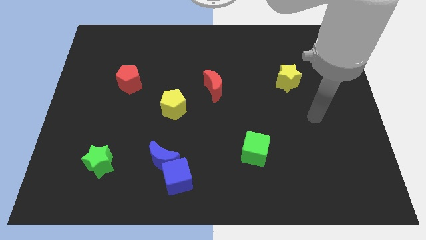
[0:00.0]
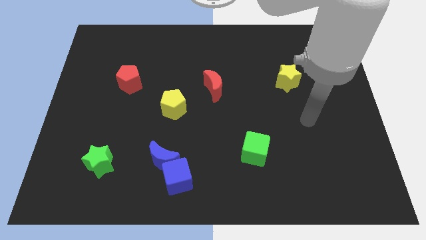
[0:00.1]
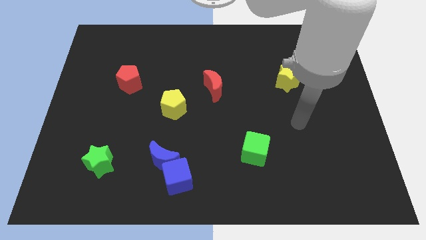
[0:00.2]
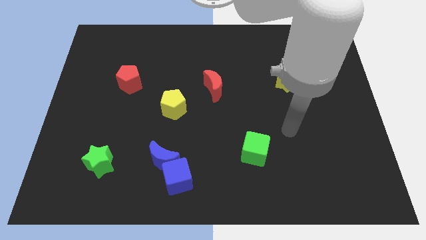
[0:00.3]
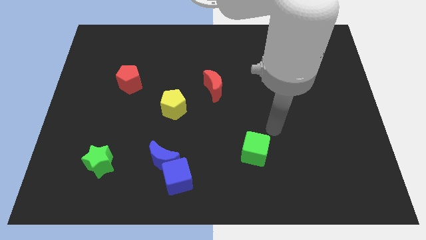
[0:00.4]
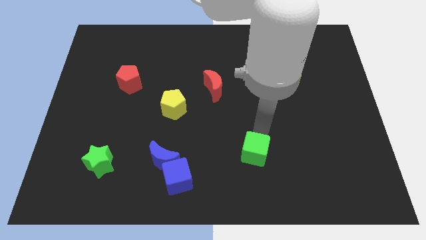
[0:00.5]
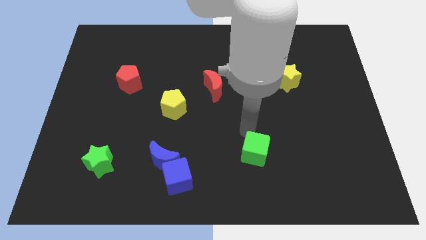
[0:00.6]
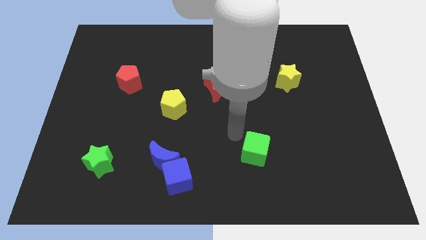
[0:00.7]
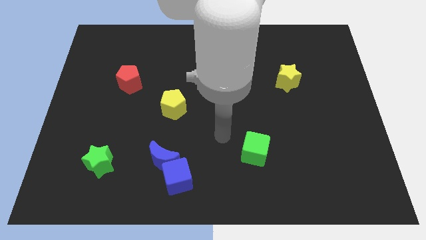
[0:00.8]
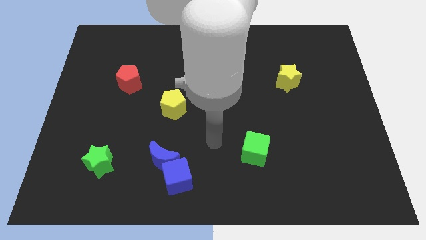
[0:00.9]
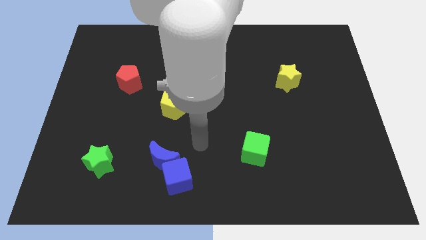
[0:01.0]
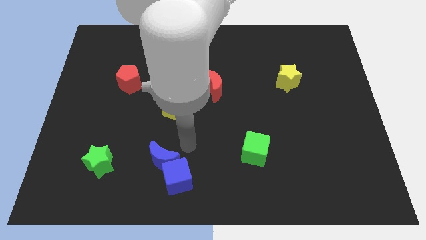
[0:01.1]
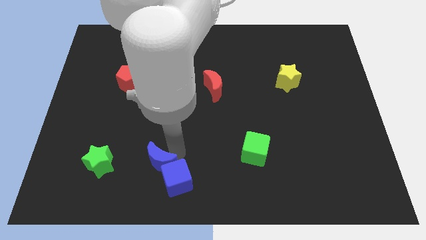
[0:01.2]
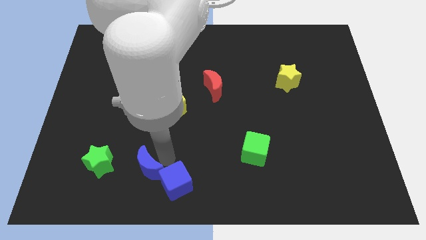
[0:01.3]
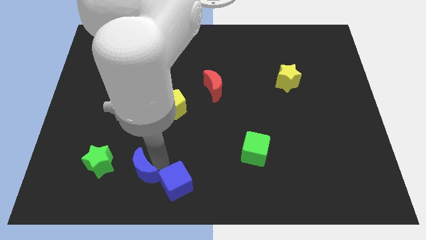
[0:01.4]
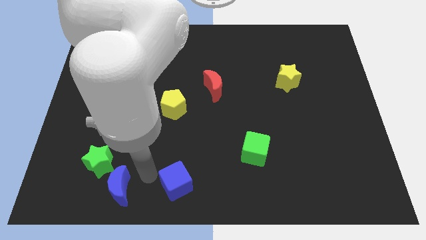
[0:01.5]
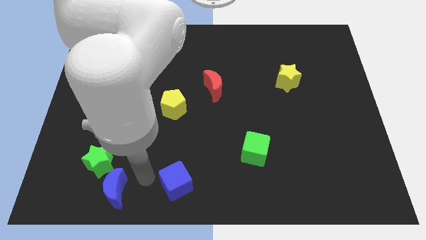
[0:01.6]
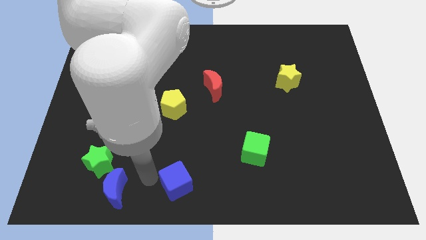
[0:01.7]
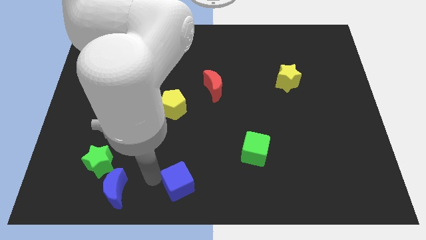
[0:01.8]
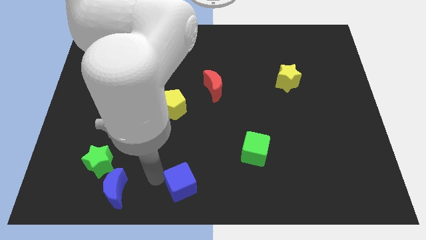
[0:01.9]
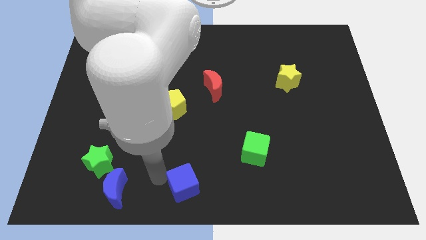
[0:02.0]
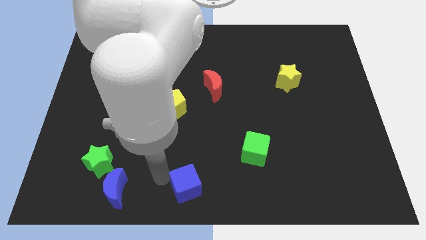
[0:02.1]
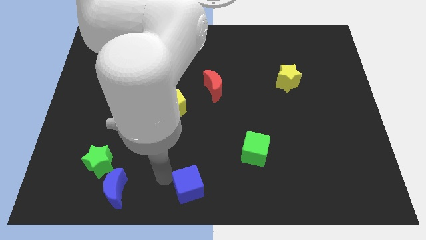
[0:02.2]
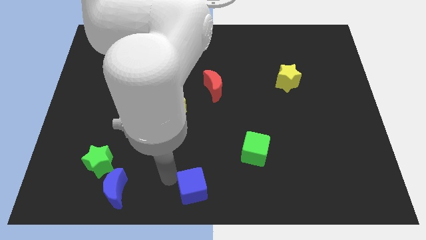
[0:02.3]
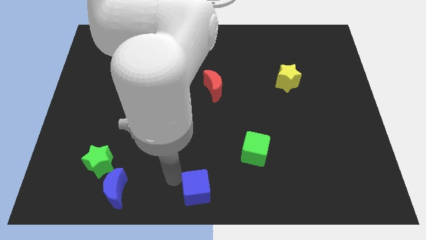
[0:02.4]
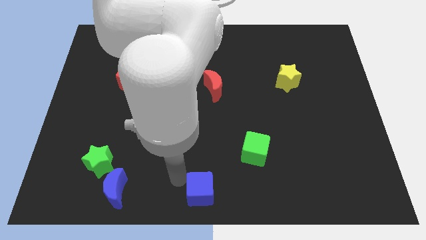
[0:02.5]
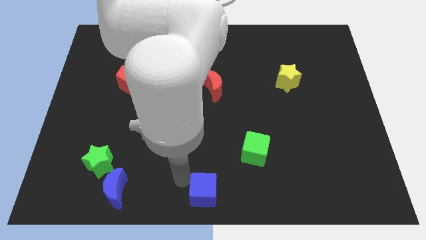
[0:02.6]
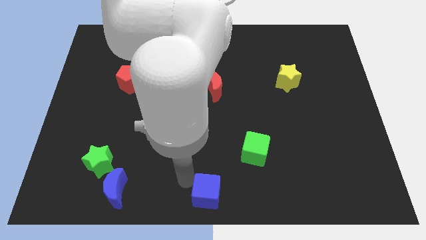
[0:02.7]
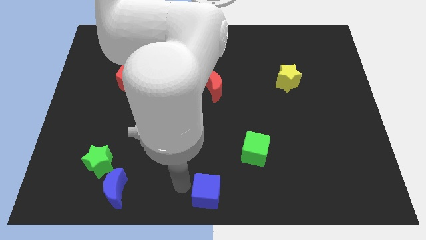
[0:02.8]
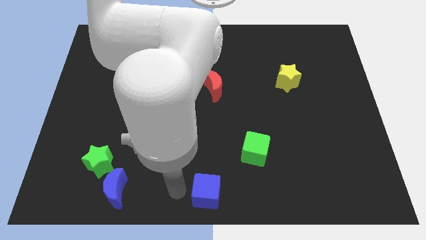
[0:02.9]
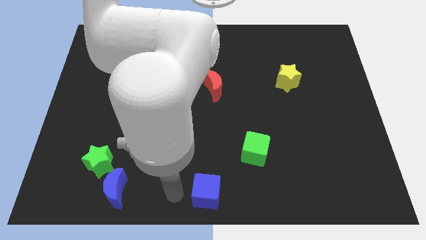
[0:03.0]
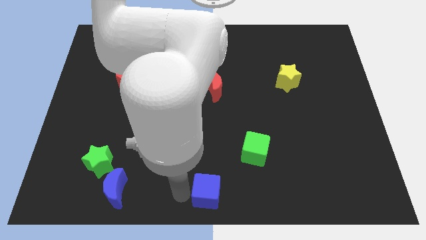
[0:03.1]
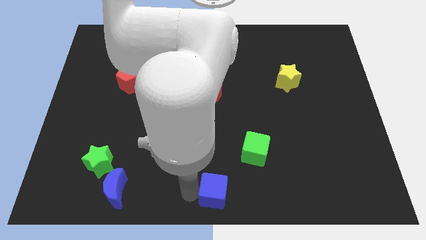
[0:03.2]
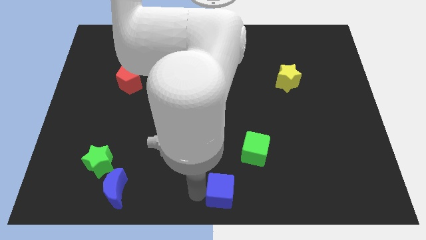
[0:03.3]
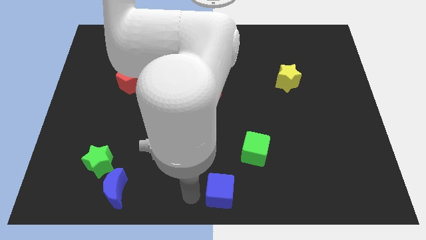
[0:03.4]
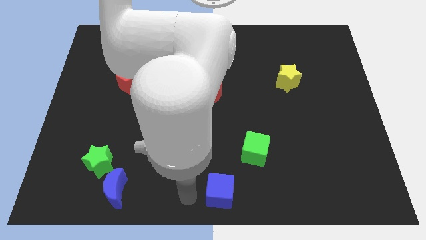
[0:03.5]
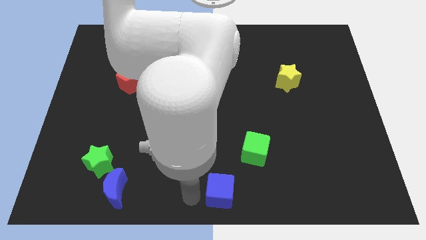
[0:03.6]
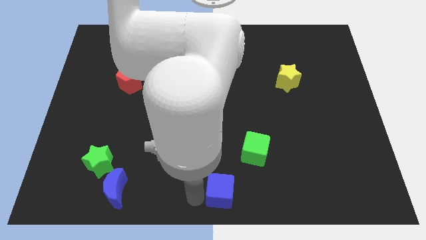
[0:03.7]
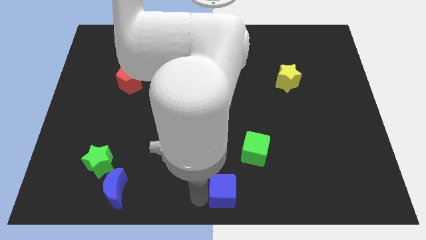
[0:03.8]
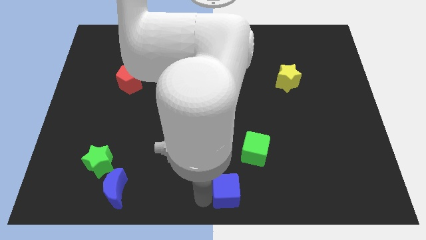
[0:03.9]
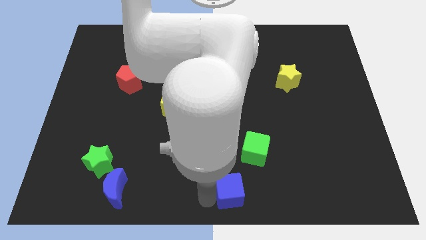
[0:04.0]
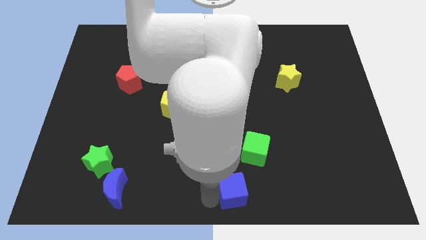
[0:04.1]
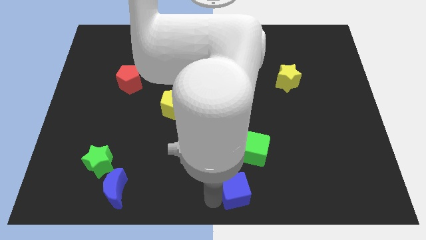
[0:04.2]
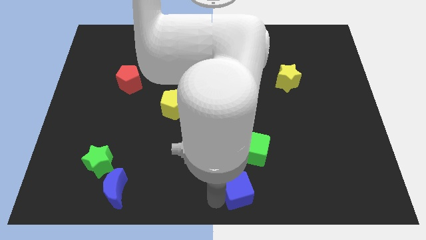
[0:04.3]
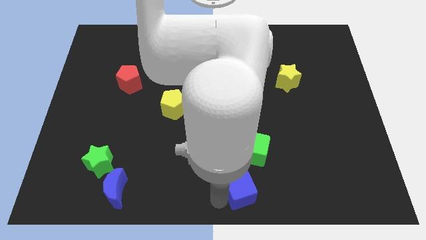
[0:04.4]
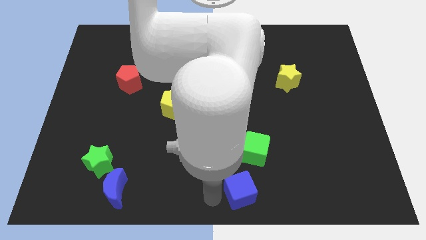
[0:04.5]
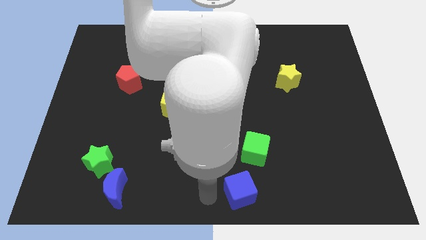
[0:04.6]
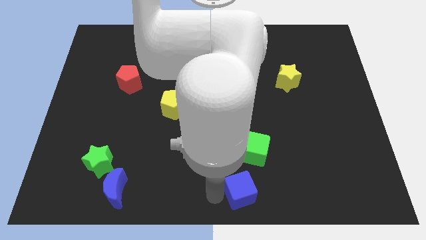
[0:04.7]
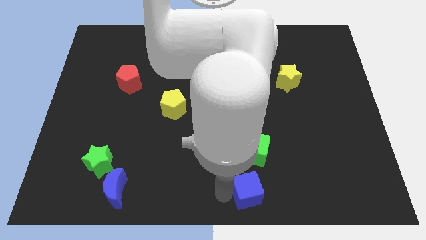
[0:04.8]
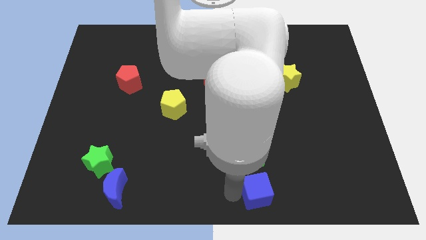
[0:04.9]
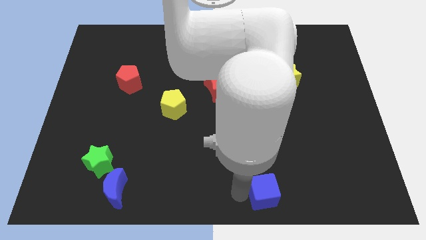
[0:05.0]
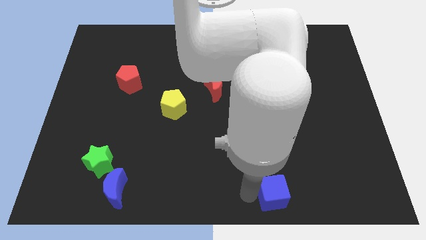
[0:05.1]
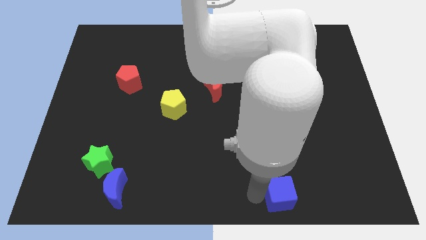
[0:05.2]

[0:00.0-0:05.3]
push the blue cube right

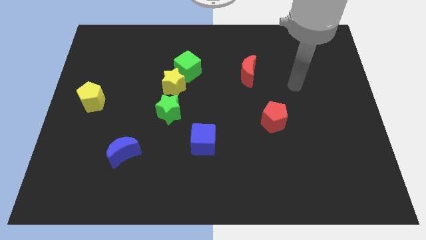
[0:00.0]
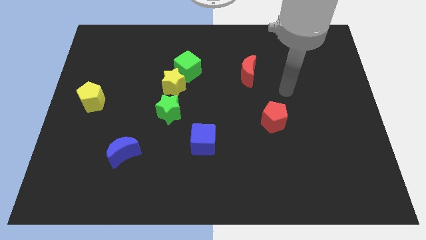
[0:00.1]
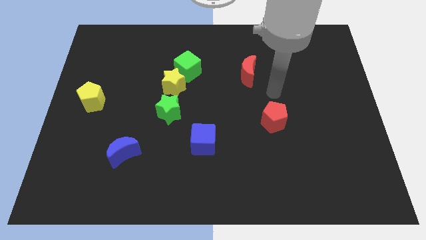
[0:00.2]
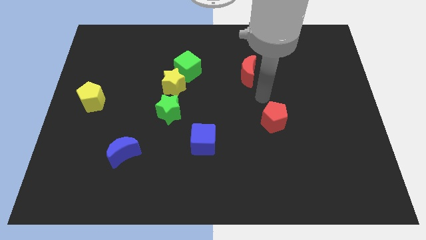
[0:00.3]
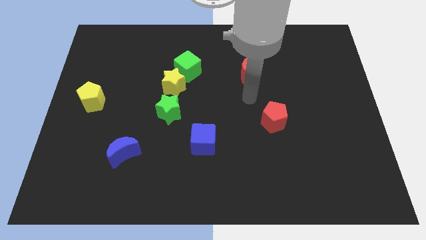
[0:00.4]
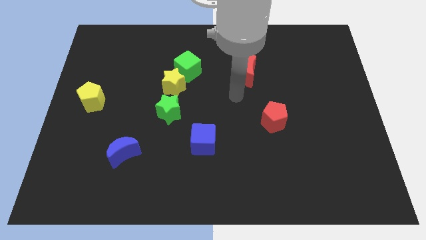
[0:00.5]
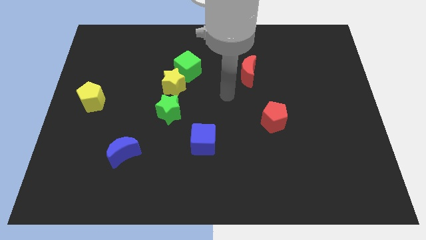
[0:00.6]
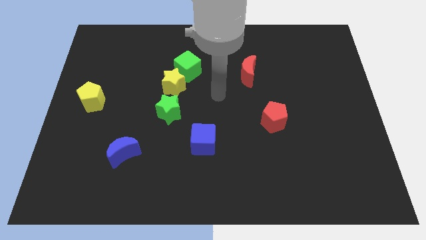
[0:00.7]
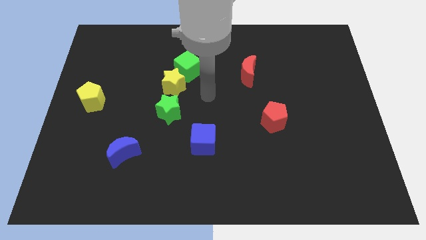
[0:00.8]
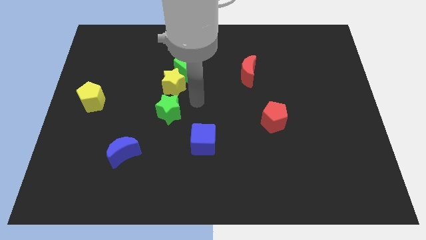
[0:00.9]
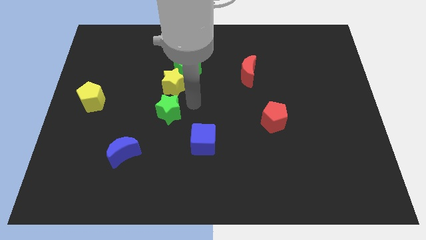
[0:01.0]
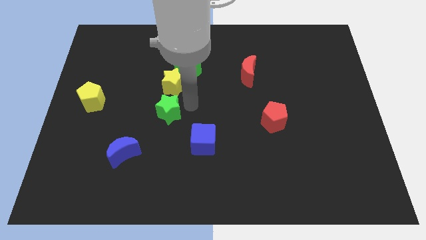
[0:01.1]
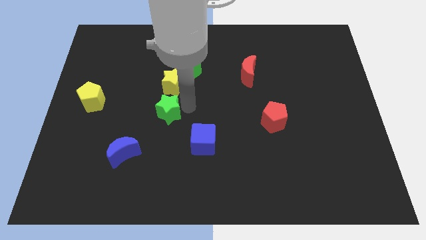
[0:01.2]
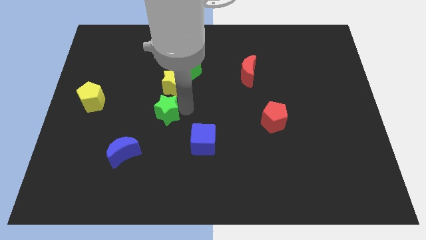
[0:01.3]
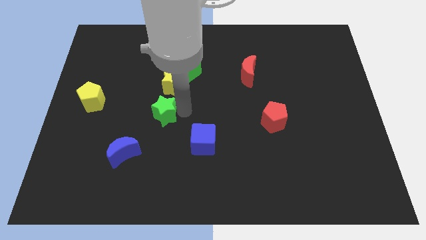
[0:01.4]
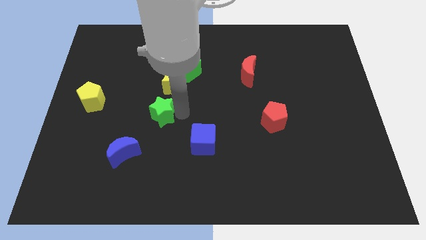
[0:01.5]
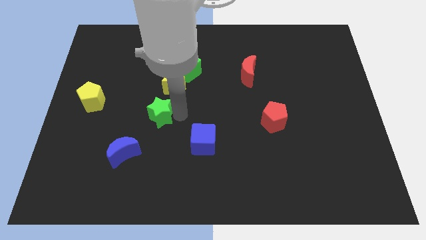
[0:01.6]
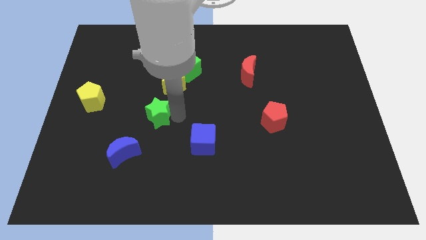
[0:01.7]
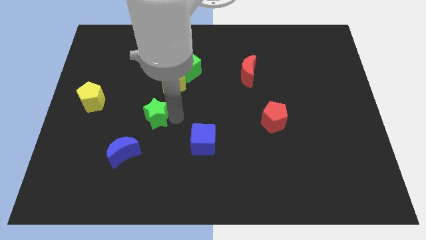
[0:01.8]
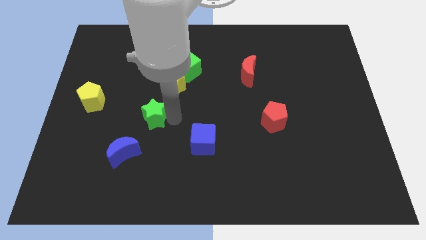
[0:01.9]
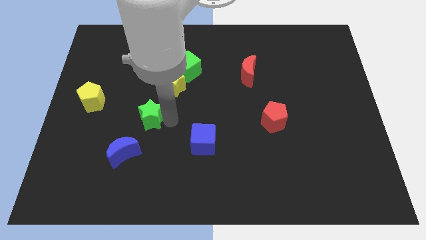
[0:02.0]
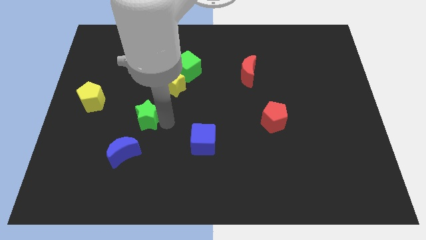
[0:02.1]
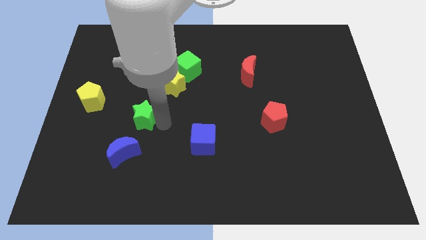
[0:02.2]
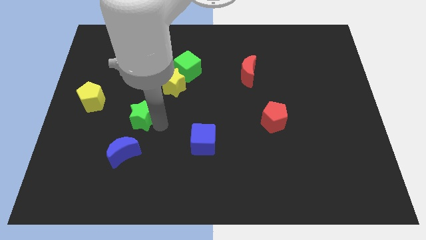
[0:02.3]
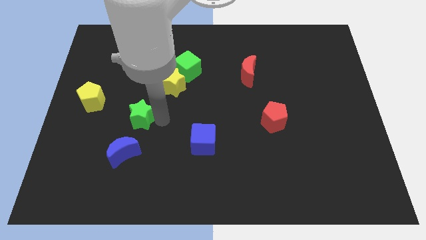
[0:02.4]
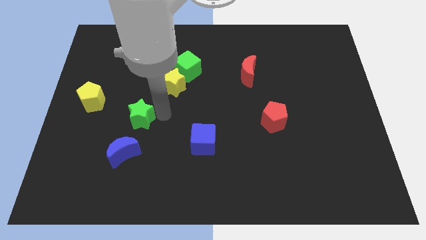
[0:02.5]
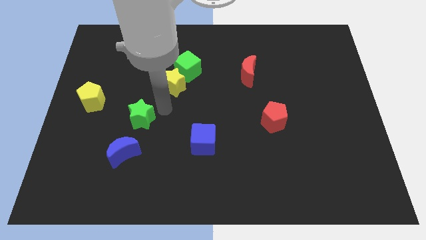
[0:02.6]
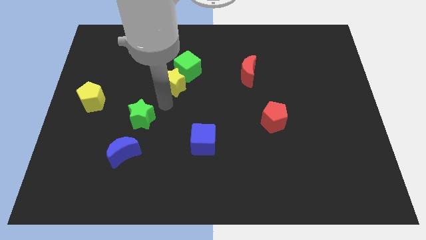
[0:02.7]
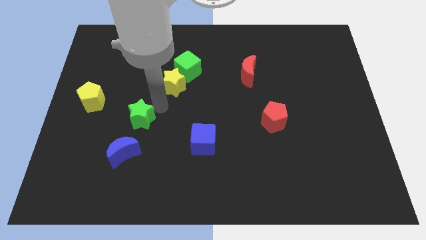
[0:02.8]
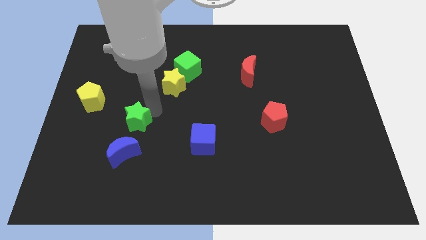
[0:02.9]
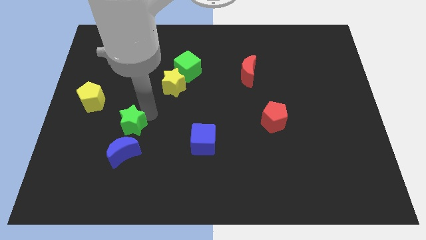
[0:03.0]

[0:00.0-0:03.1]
slightly push the green star downwards and left diagonally
